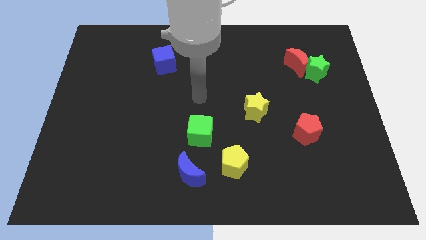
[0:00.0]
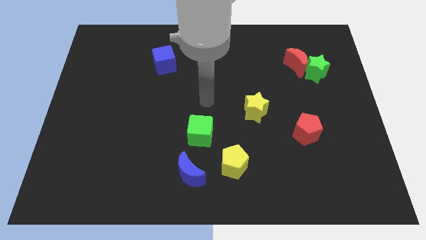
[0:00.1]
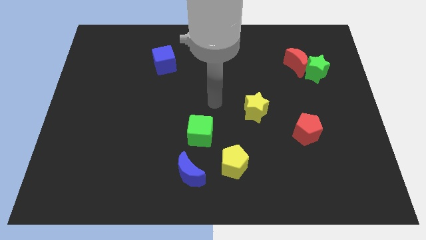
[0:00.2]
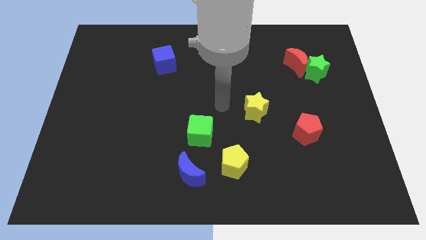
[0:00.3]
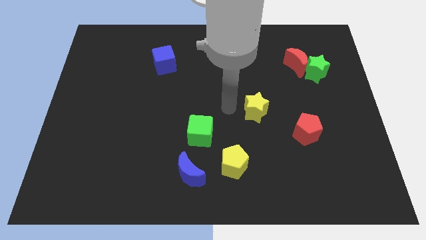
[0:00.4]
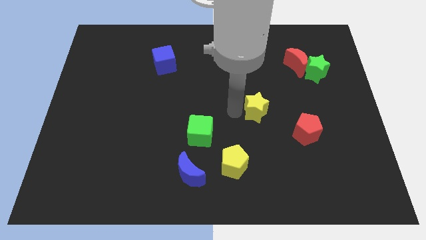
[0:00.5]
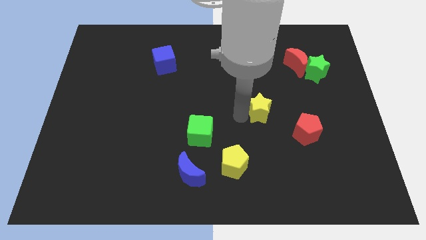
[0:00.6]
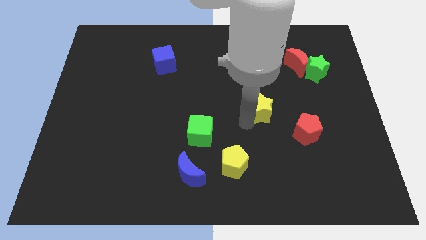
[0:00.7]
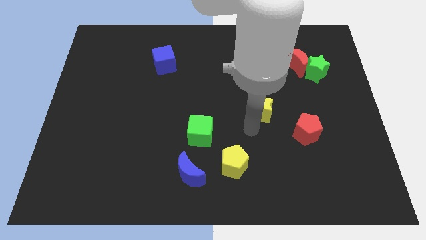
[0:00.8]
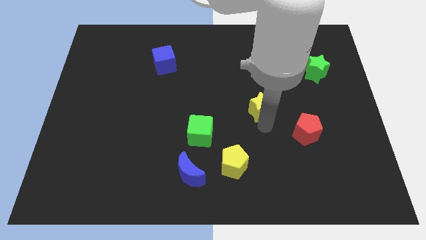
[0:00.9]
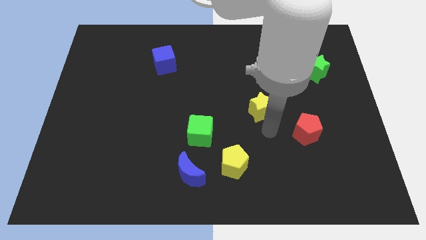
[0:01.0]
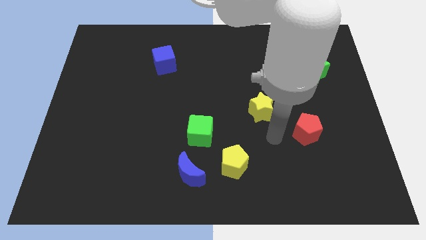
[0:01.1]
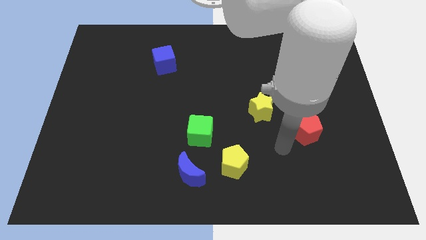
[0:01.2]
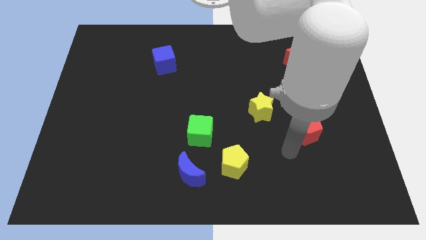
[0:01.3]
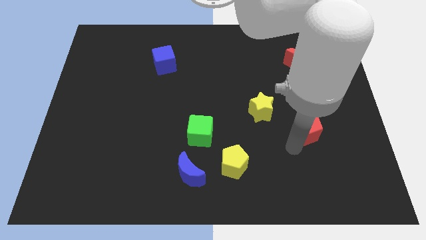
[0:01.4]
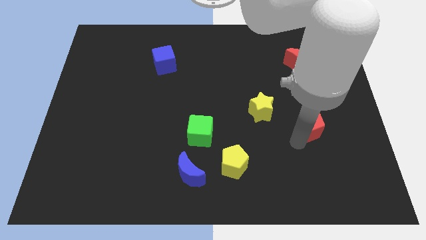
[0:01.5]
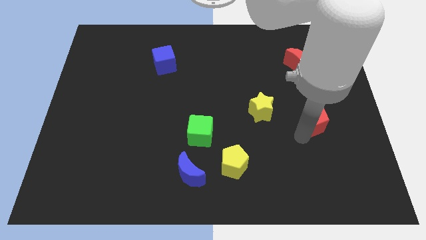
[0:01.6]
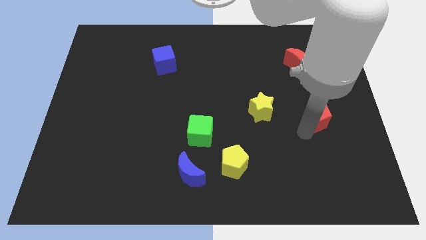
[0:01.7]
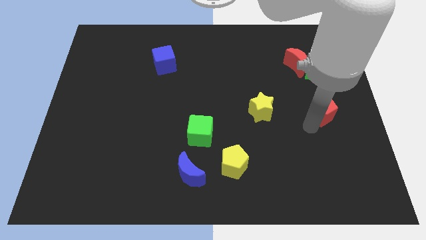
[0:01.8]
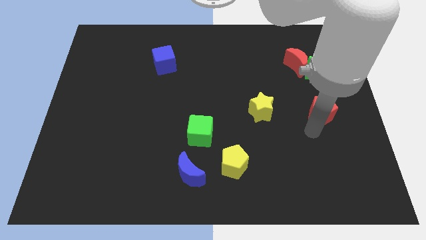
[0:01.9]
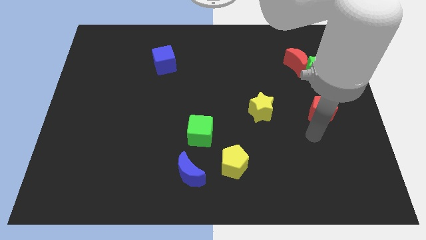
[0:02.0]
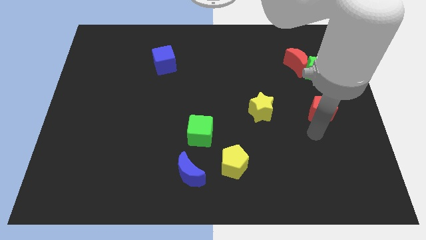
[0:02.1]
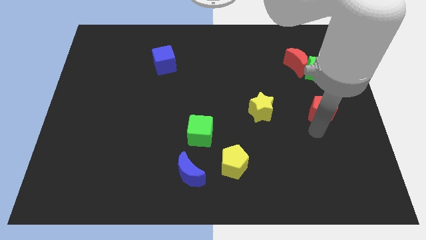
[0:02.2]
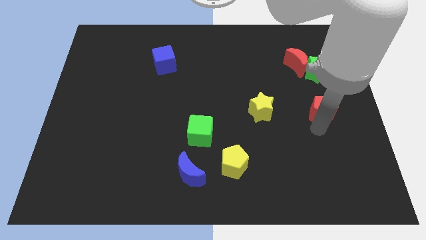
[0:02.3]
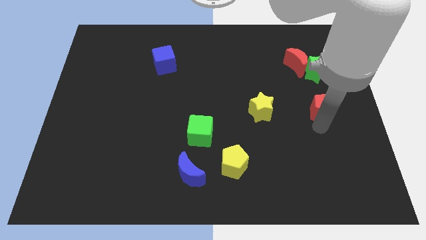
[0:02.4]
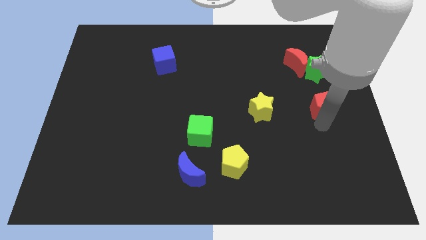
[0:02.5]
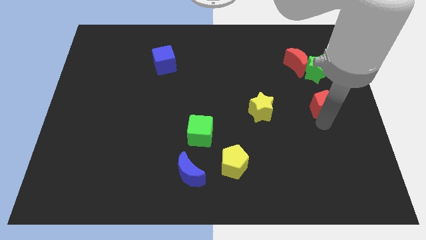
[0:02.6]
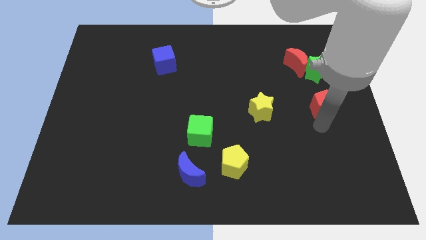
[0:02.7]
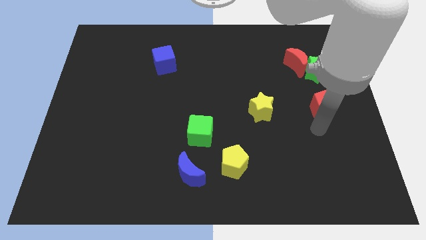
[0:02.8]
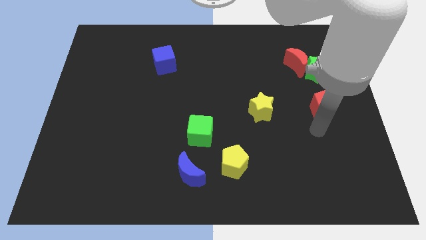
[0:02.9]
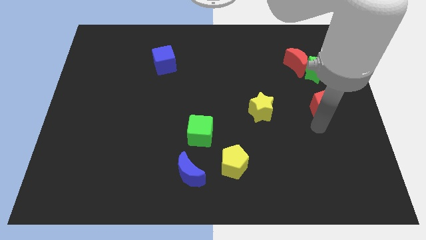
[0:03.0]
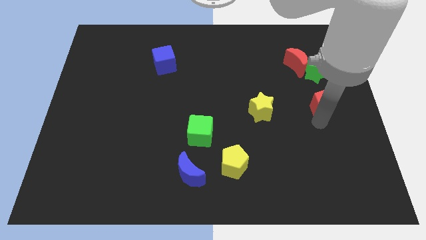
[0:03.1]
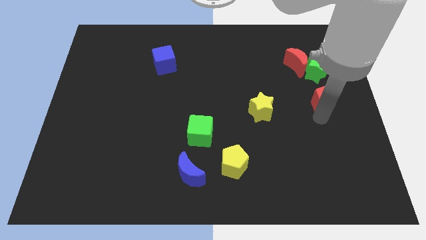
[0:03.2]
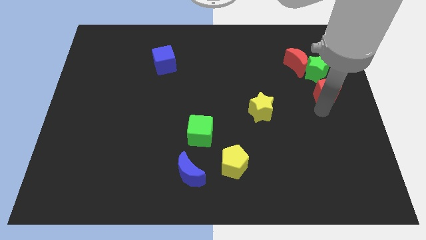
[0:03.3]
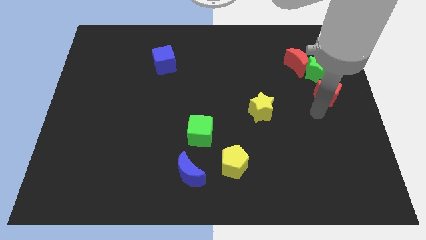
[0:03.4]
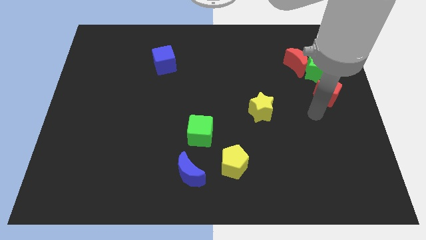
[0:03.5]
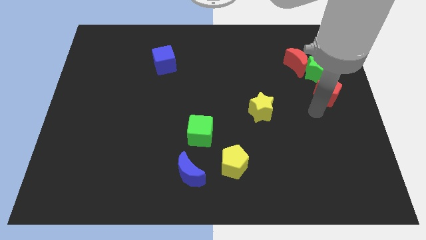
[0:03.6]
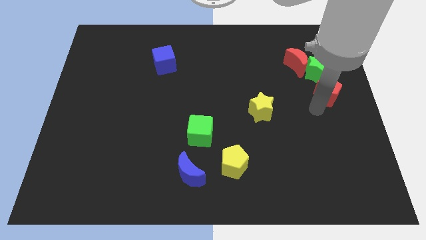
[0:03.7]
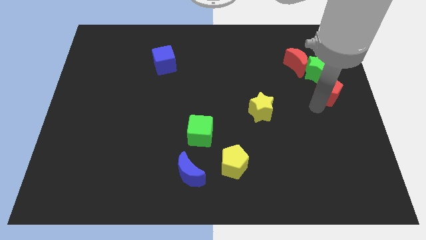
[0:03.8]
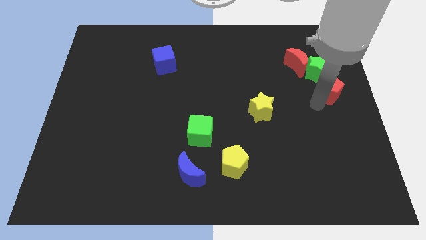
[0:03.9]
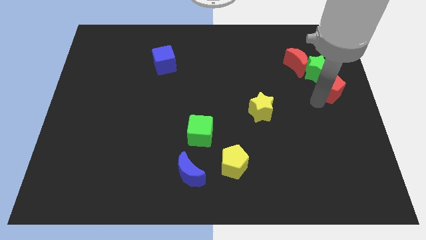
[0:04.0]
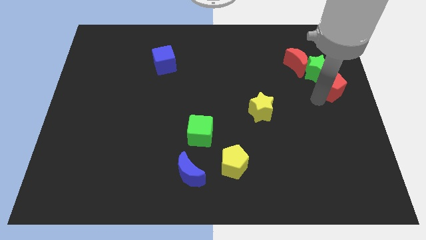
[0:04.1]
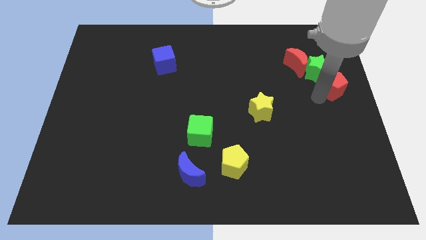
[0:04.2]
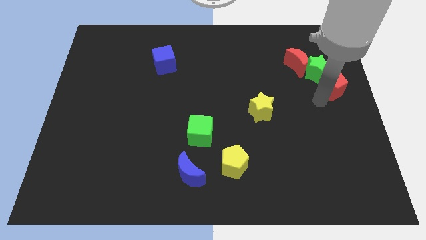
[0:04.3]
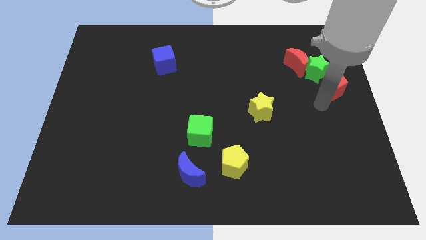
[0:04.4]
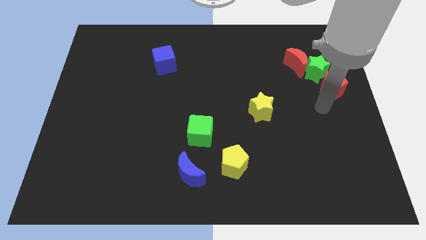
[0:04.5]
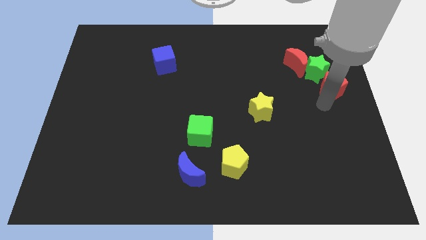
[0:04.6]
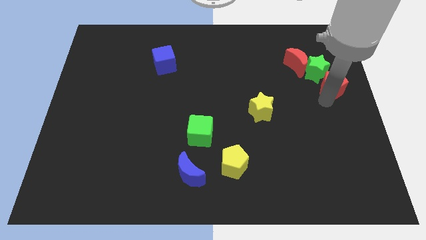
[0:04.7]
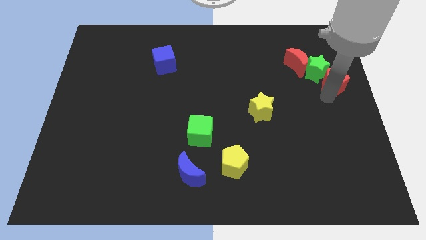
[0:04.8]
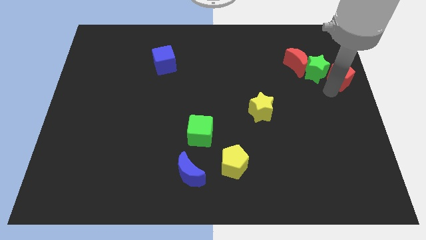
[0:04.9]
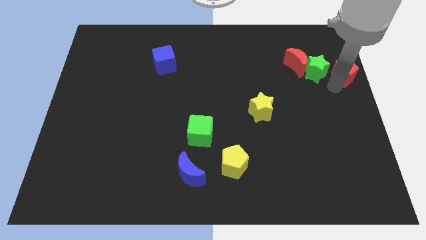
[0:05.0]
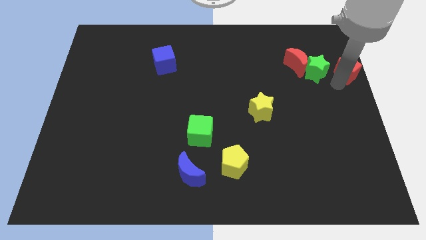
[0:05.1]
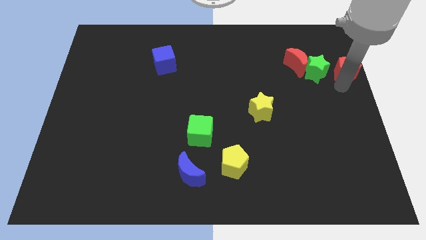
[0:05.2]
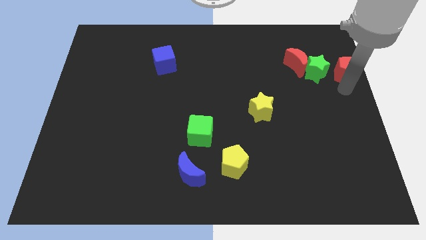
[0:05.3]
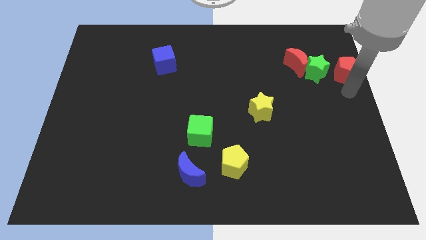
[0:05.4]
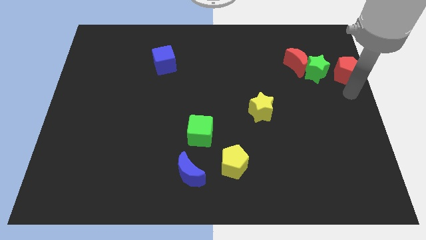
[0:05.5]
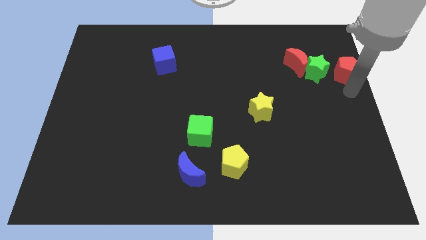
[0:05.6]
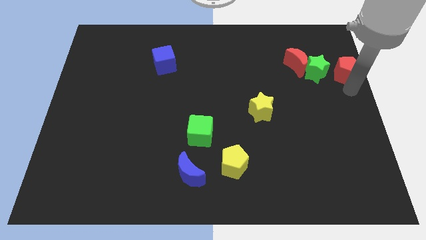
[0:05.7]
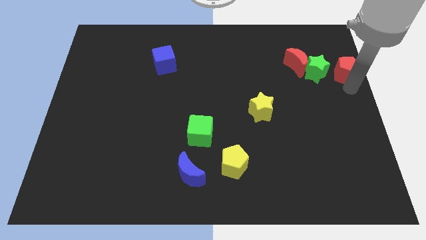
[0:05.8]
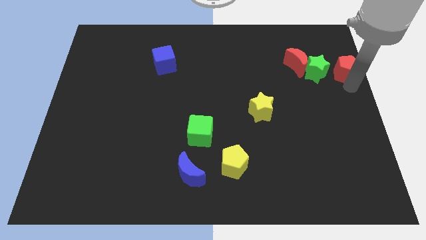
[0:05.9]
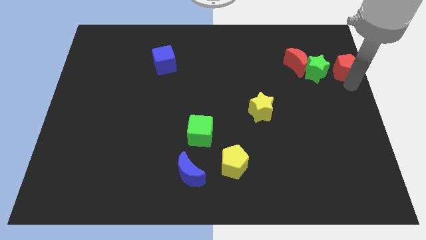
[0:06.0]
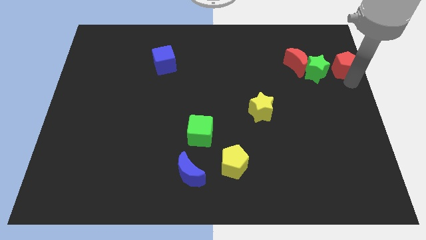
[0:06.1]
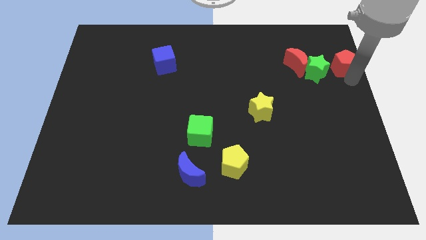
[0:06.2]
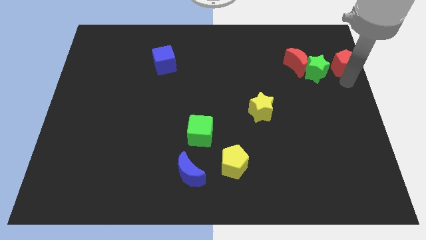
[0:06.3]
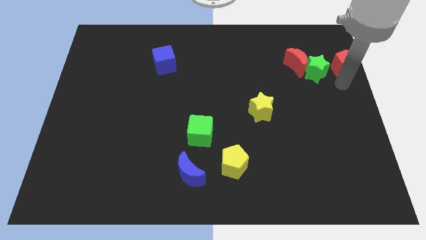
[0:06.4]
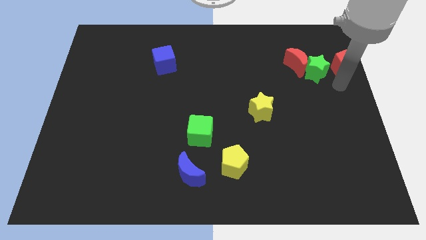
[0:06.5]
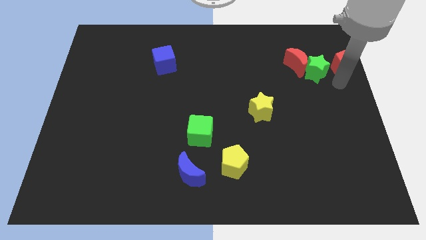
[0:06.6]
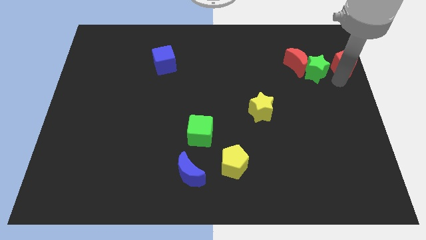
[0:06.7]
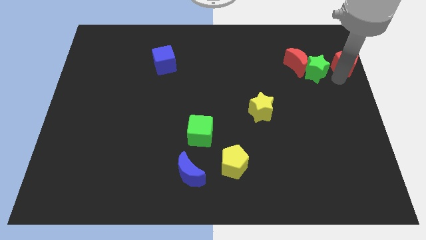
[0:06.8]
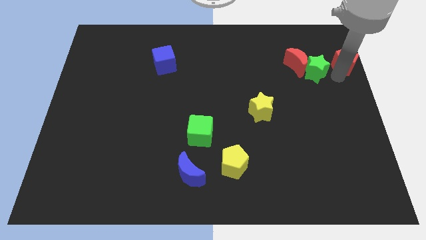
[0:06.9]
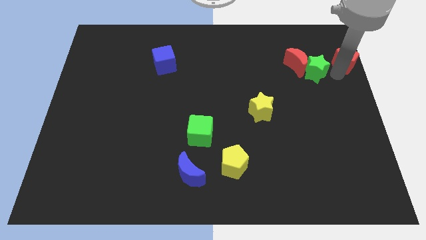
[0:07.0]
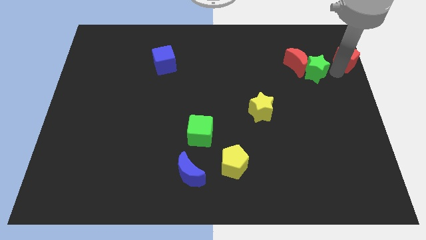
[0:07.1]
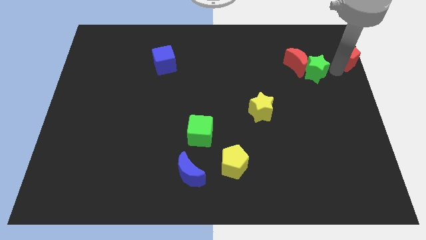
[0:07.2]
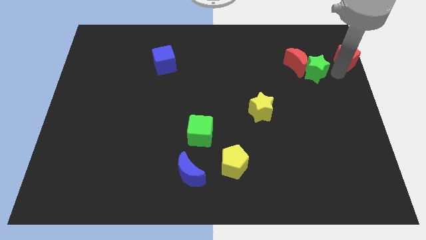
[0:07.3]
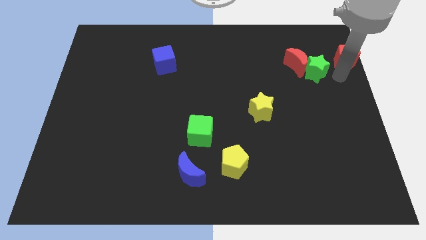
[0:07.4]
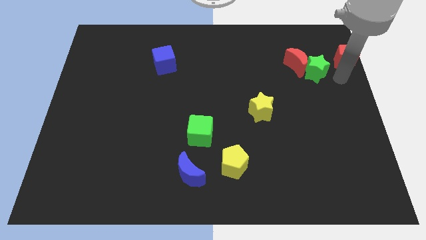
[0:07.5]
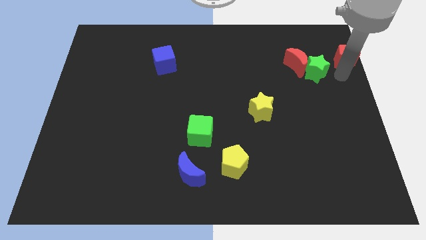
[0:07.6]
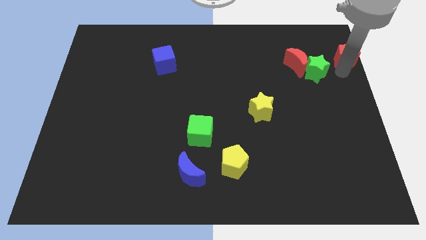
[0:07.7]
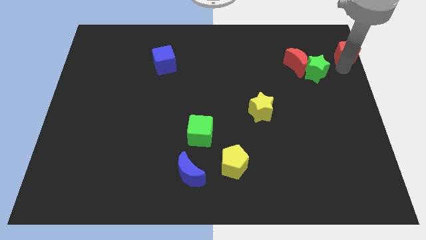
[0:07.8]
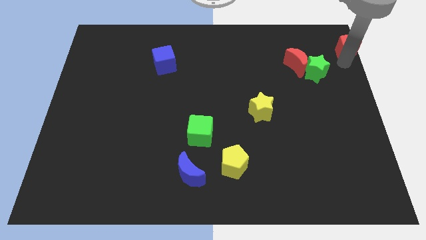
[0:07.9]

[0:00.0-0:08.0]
push the red pentagon to the top right
